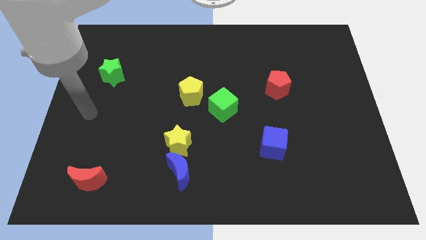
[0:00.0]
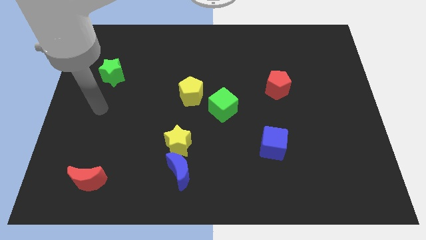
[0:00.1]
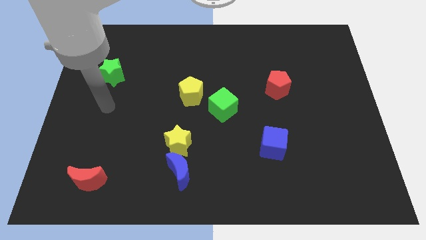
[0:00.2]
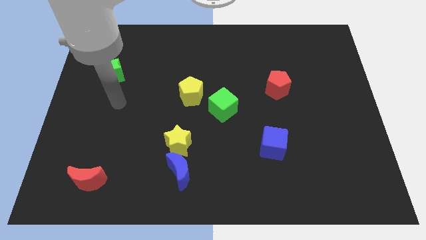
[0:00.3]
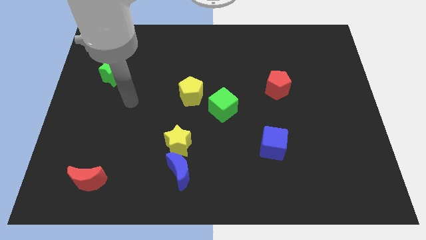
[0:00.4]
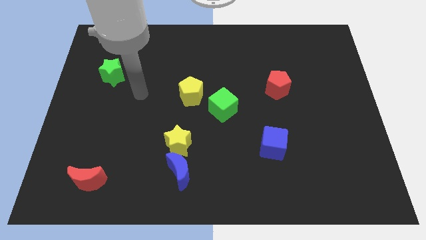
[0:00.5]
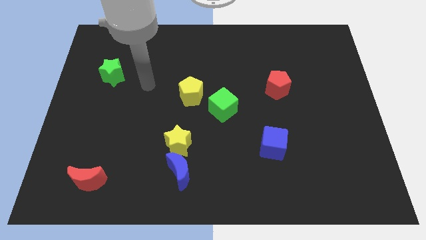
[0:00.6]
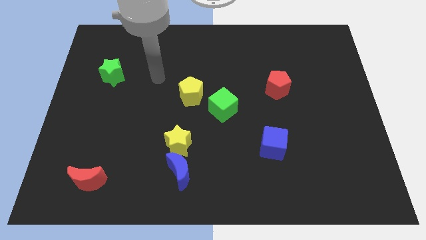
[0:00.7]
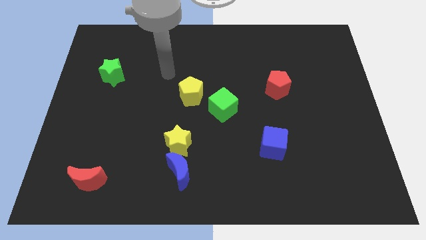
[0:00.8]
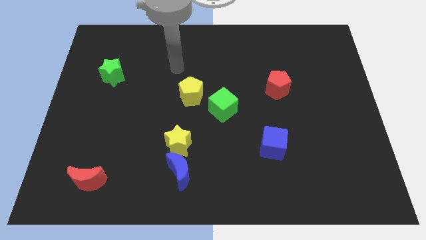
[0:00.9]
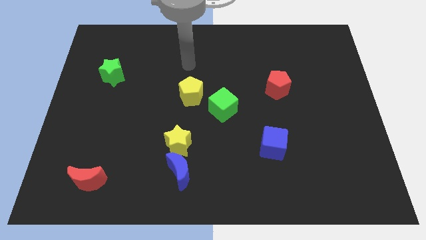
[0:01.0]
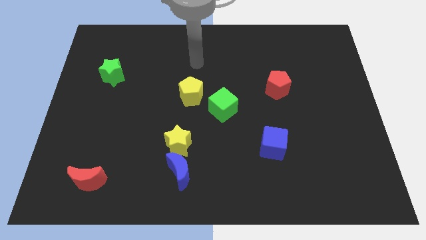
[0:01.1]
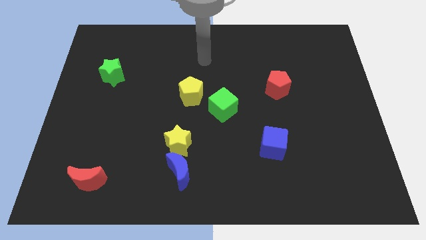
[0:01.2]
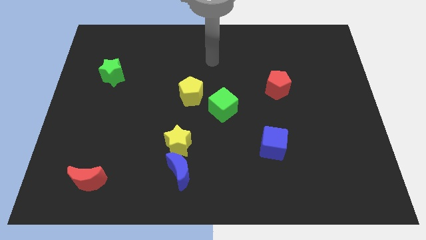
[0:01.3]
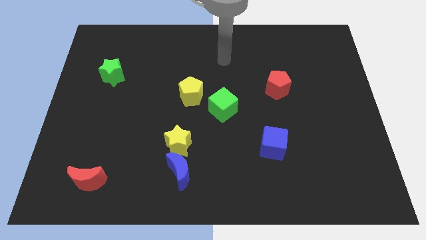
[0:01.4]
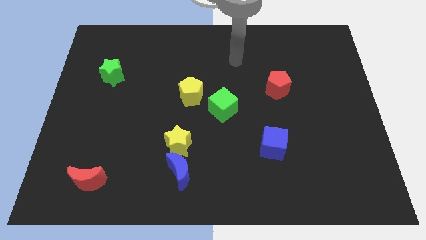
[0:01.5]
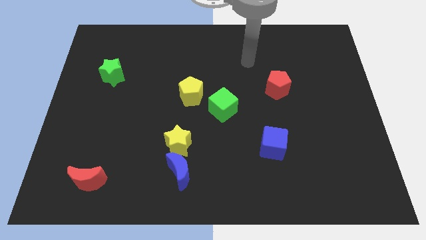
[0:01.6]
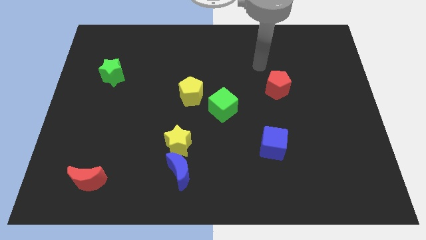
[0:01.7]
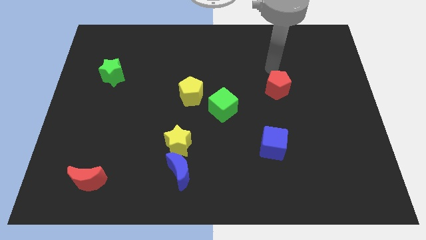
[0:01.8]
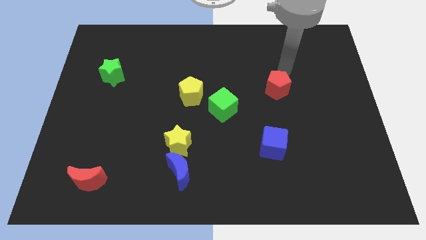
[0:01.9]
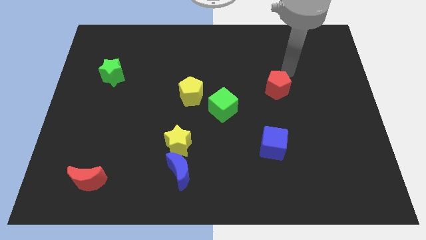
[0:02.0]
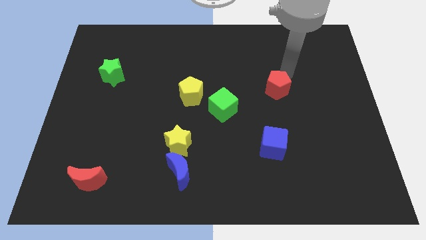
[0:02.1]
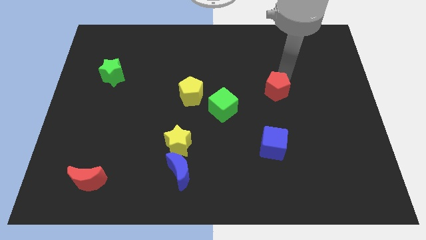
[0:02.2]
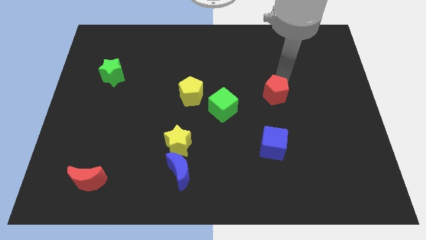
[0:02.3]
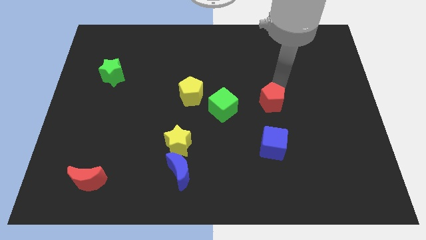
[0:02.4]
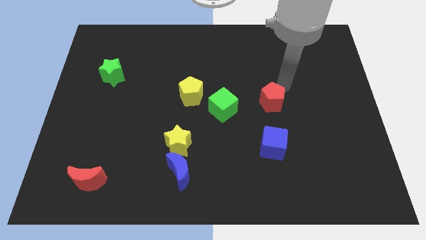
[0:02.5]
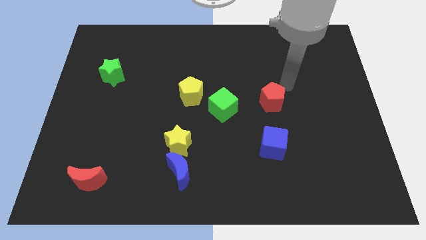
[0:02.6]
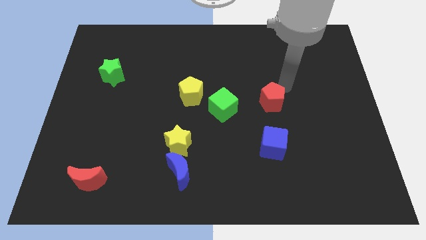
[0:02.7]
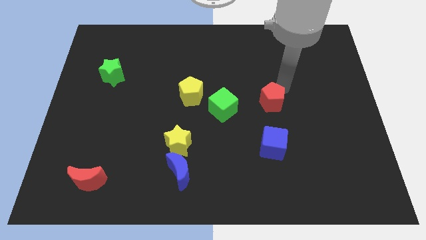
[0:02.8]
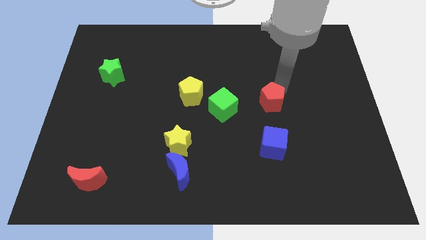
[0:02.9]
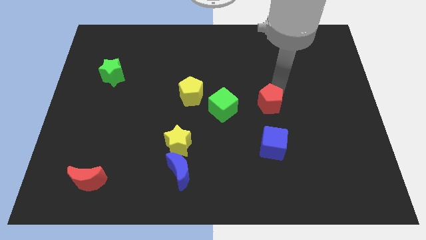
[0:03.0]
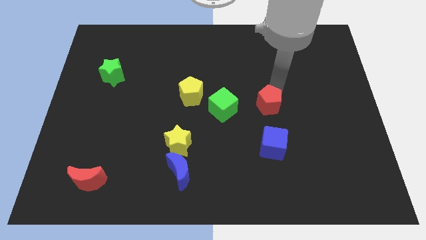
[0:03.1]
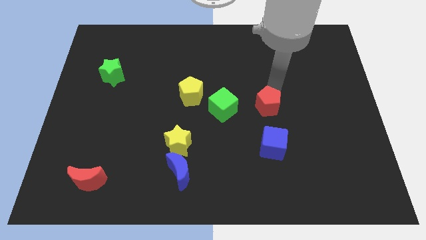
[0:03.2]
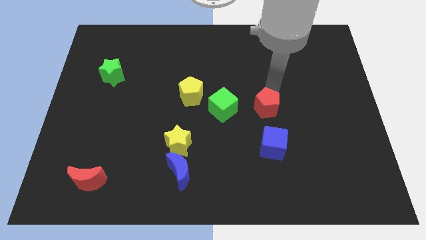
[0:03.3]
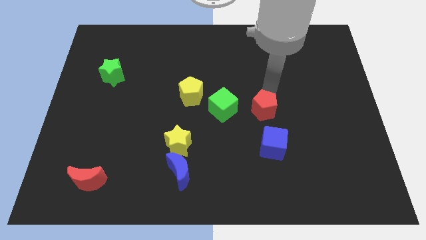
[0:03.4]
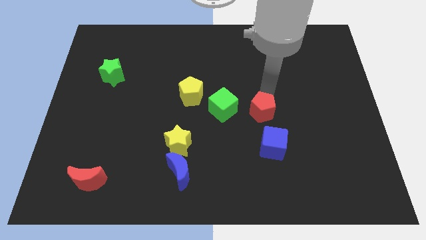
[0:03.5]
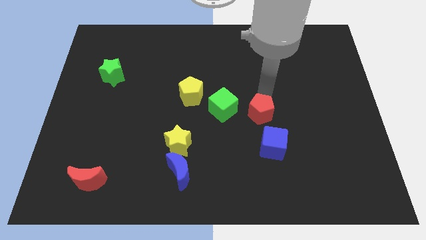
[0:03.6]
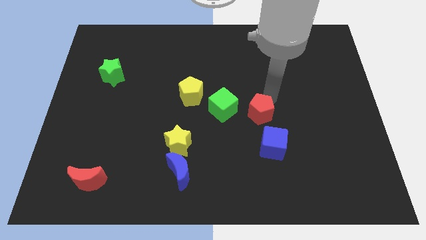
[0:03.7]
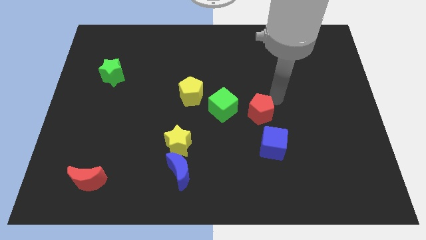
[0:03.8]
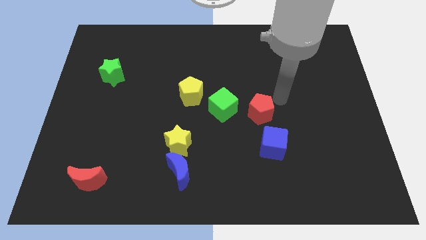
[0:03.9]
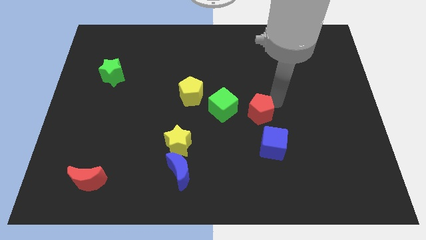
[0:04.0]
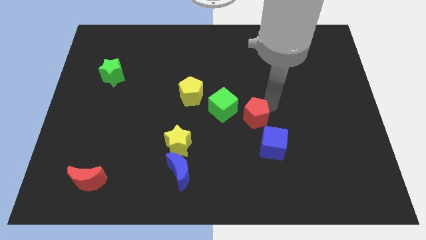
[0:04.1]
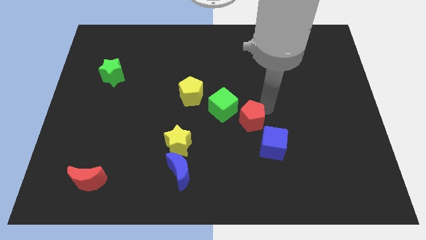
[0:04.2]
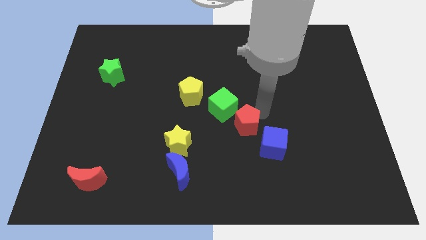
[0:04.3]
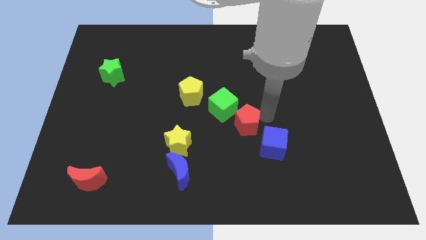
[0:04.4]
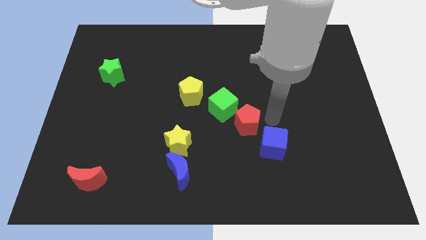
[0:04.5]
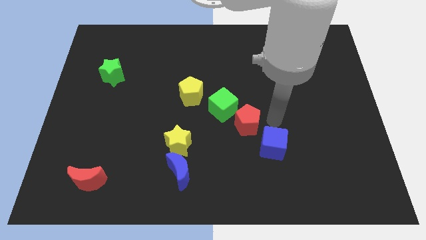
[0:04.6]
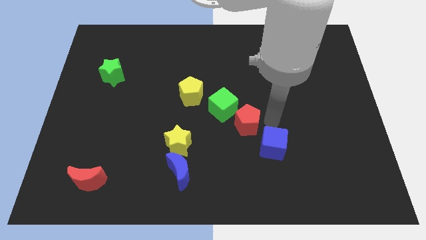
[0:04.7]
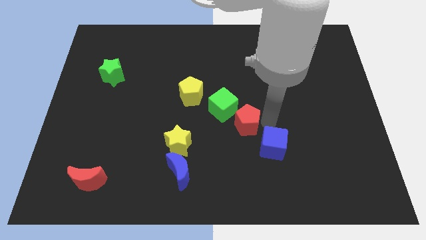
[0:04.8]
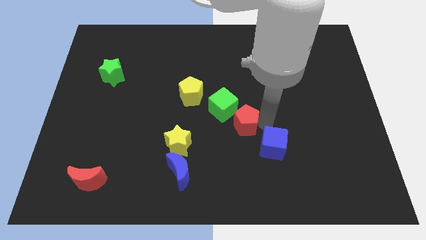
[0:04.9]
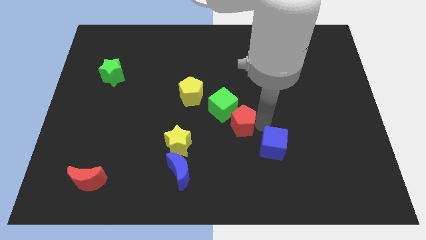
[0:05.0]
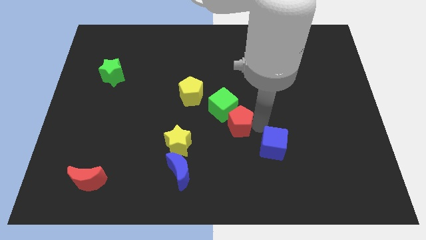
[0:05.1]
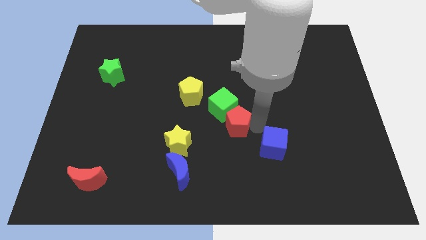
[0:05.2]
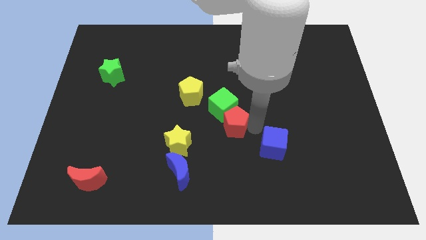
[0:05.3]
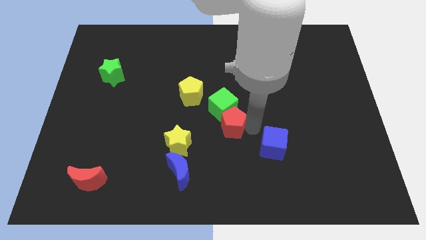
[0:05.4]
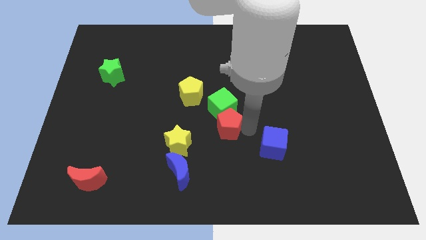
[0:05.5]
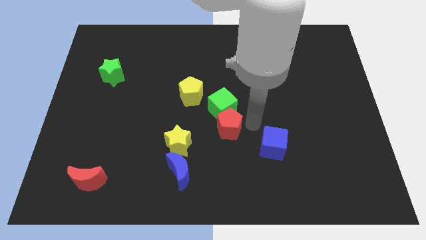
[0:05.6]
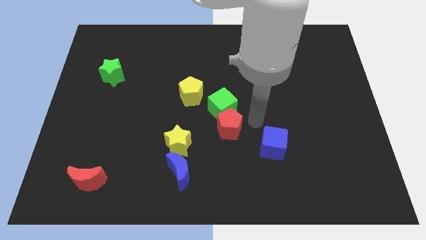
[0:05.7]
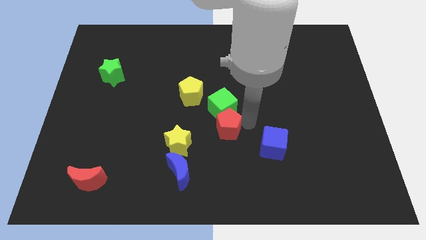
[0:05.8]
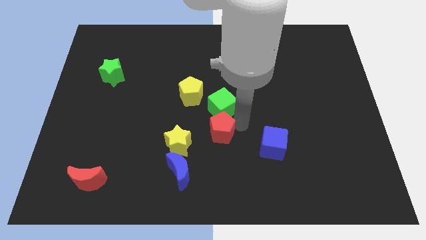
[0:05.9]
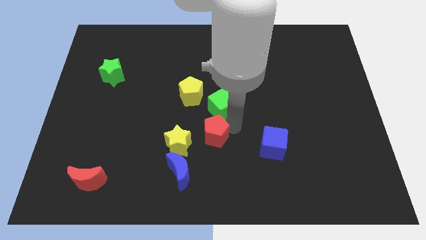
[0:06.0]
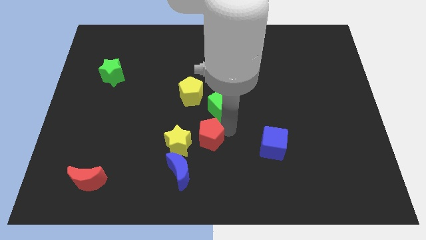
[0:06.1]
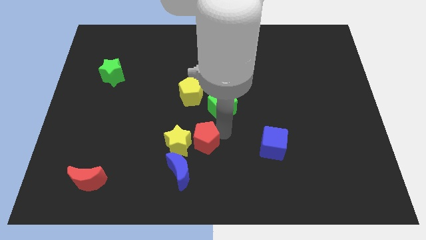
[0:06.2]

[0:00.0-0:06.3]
slide the red pentagon to the yellow star

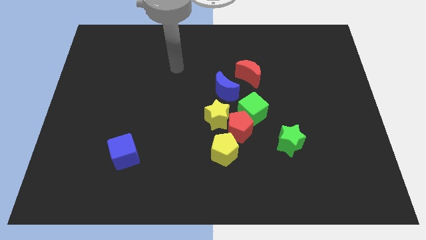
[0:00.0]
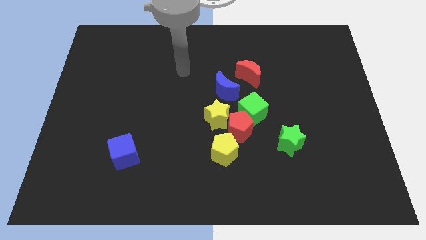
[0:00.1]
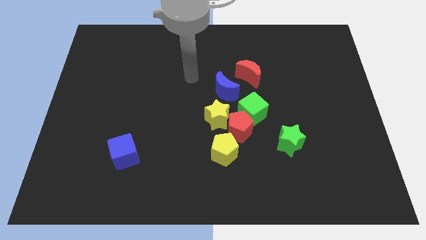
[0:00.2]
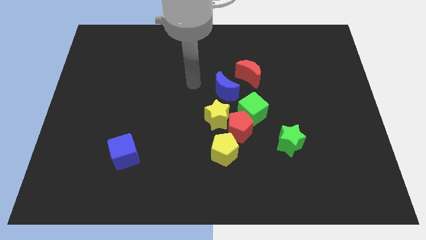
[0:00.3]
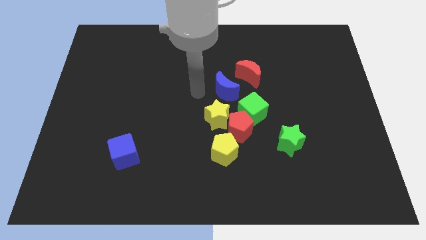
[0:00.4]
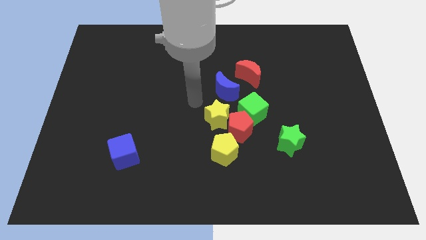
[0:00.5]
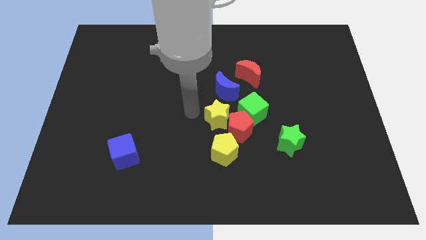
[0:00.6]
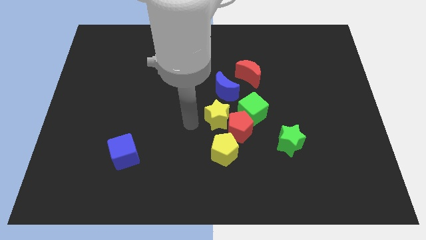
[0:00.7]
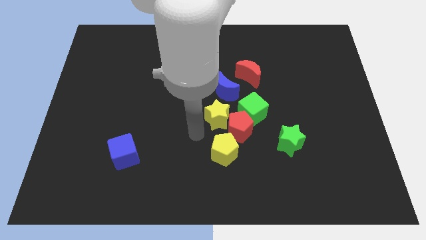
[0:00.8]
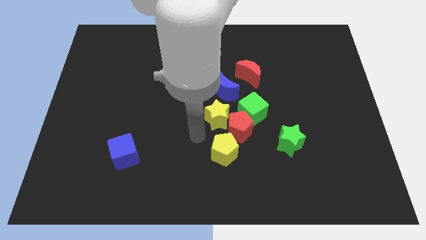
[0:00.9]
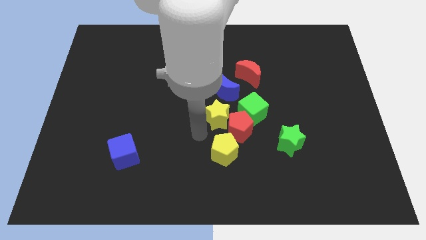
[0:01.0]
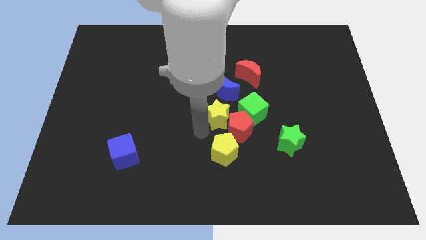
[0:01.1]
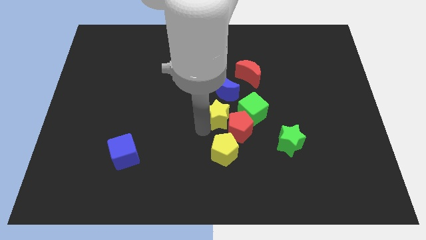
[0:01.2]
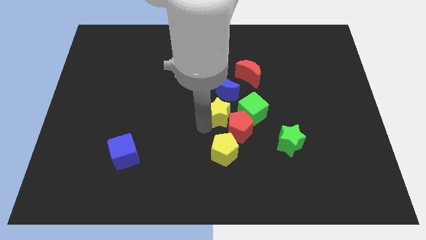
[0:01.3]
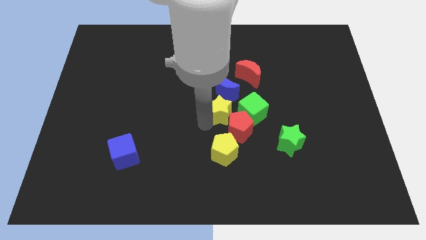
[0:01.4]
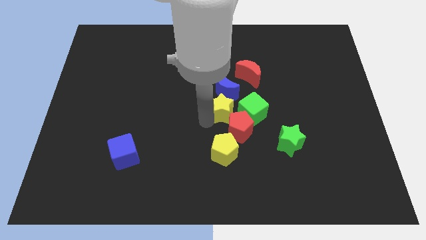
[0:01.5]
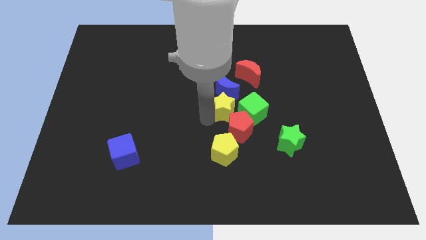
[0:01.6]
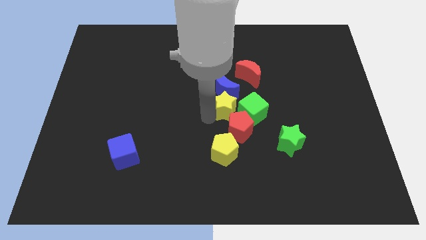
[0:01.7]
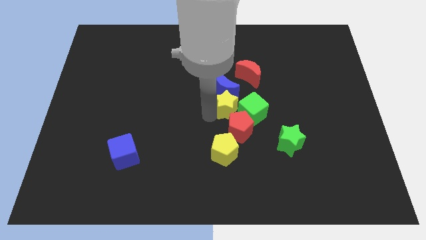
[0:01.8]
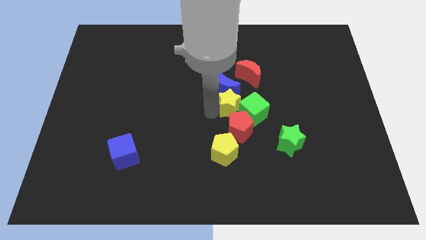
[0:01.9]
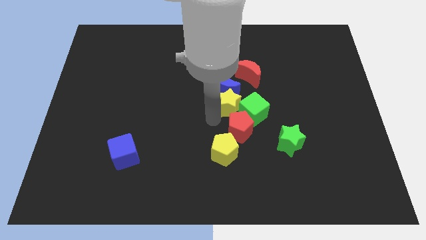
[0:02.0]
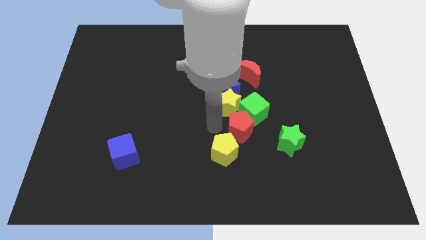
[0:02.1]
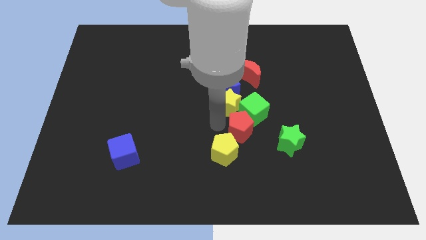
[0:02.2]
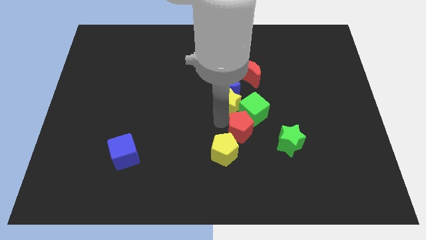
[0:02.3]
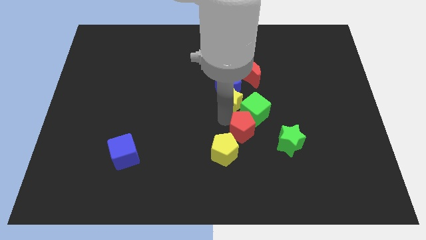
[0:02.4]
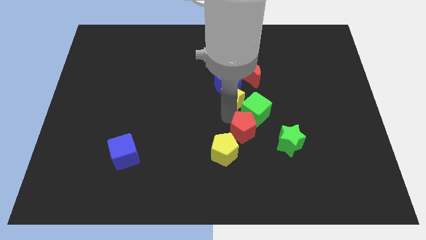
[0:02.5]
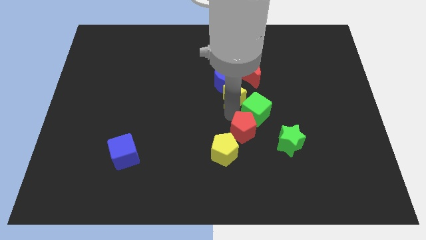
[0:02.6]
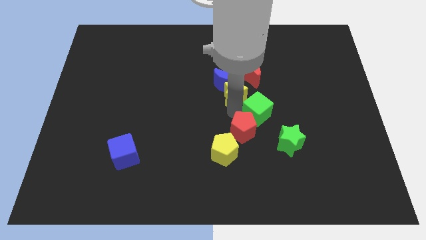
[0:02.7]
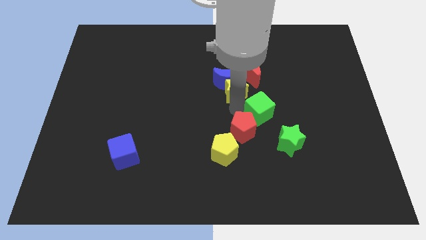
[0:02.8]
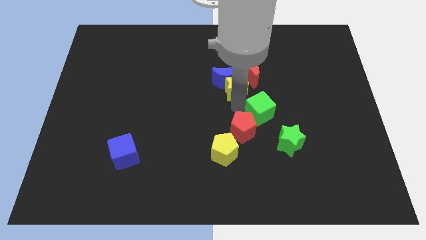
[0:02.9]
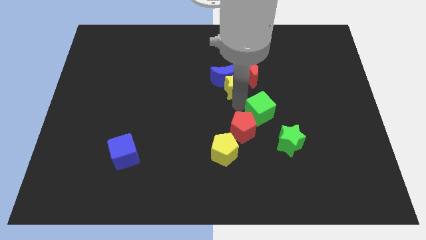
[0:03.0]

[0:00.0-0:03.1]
put the yellow star towards the red moon
